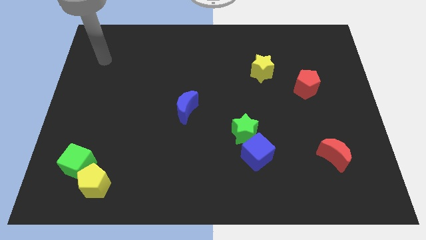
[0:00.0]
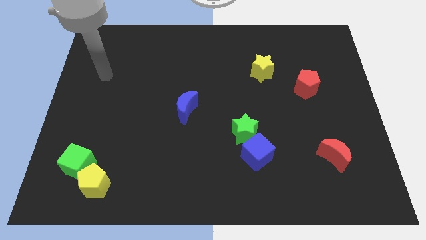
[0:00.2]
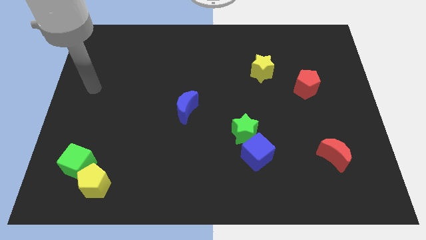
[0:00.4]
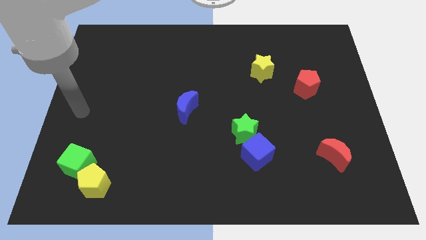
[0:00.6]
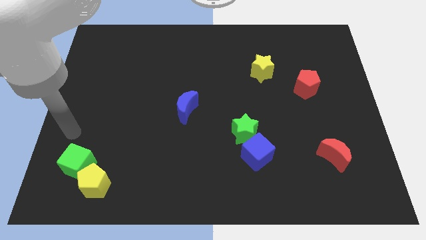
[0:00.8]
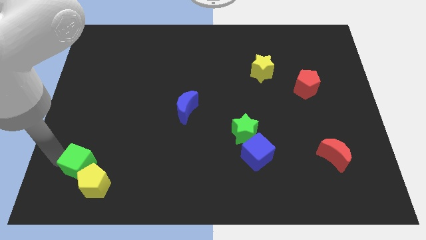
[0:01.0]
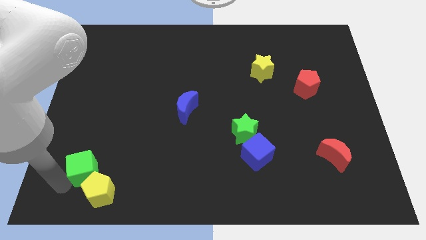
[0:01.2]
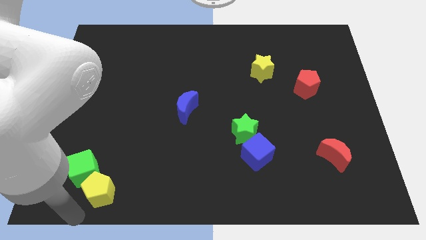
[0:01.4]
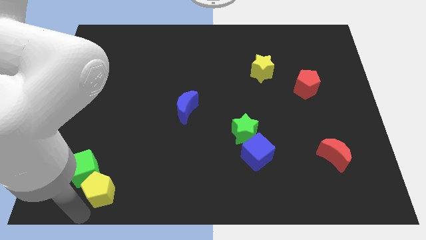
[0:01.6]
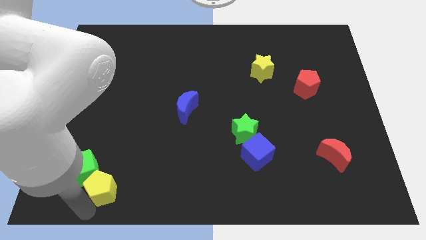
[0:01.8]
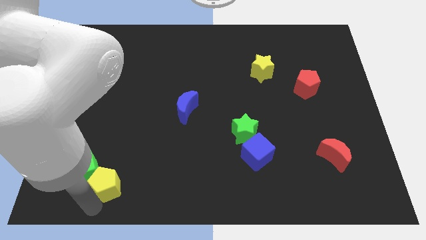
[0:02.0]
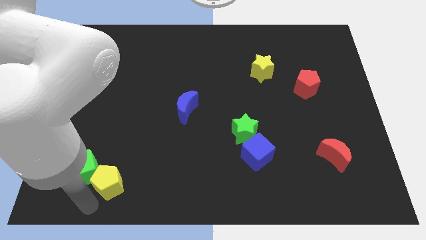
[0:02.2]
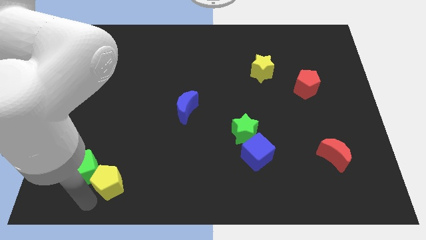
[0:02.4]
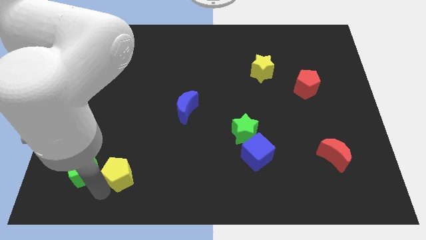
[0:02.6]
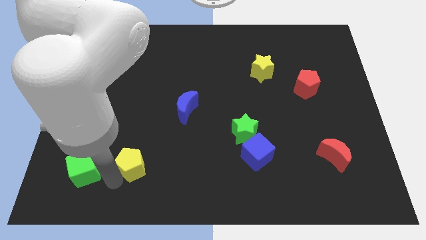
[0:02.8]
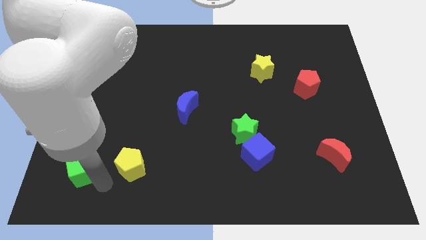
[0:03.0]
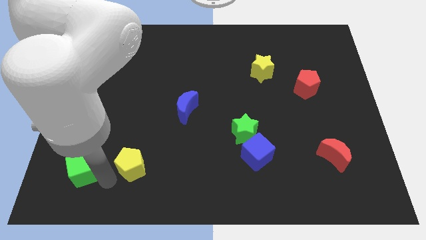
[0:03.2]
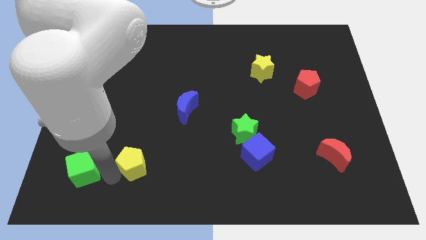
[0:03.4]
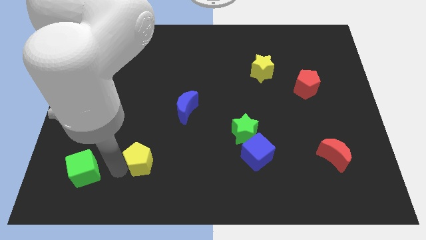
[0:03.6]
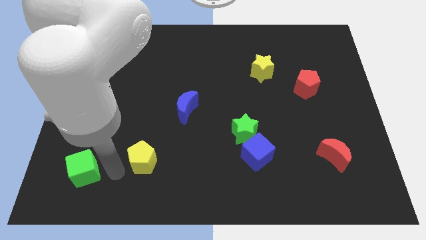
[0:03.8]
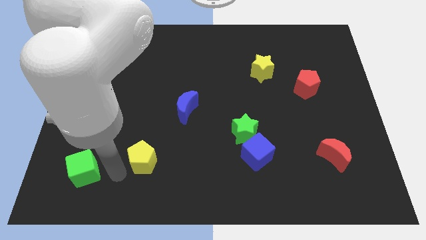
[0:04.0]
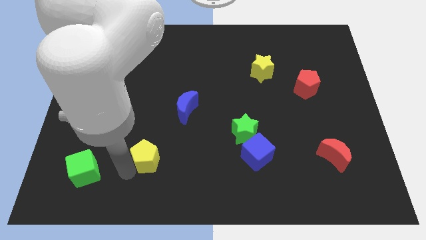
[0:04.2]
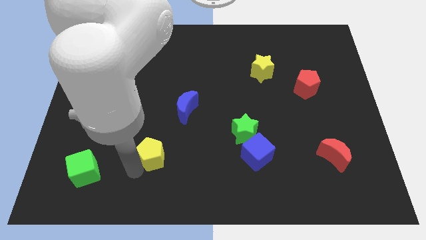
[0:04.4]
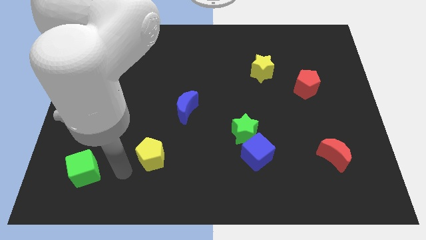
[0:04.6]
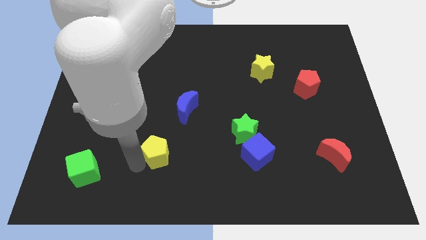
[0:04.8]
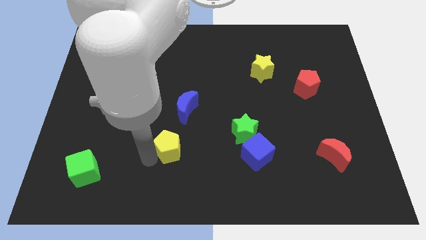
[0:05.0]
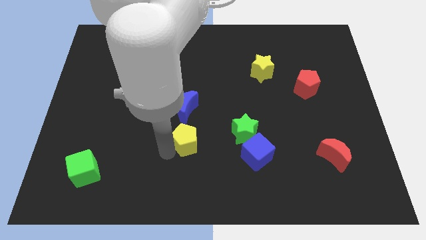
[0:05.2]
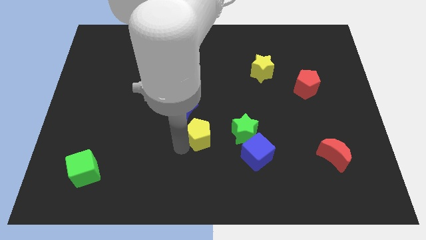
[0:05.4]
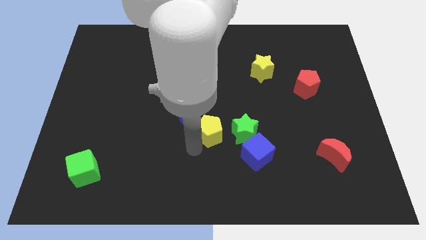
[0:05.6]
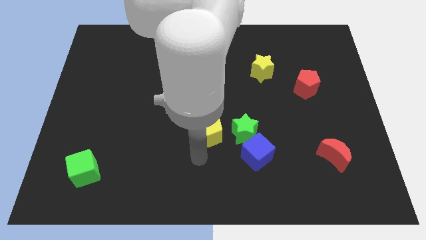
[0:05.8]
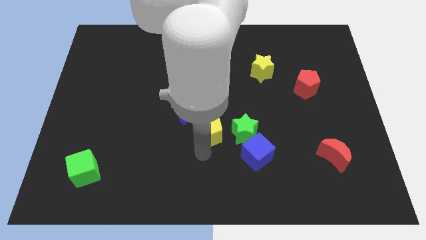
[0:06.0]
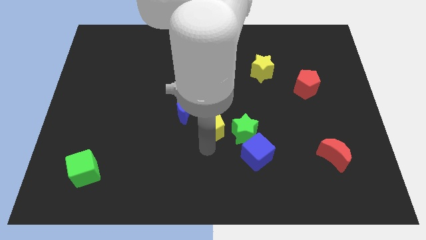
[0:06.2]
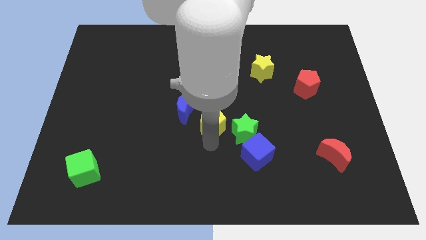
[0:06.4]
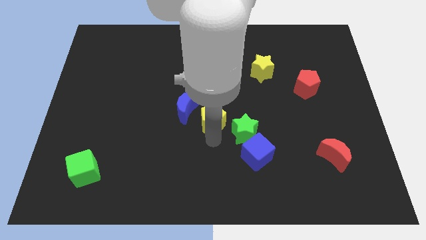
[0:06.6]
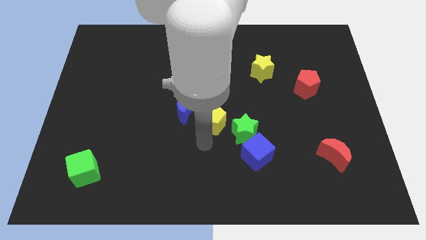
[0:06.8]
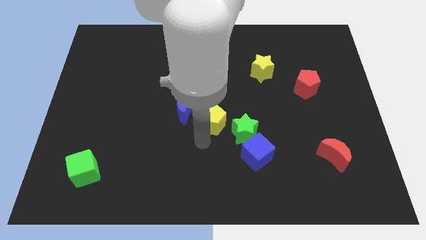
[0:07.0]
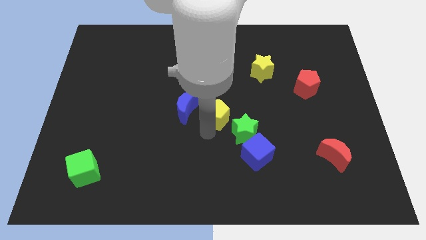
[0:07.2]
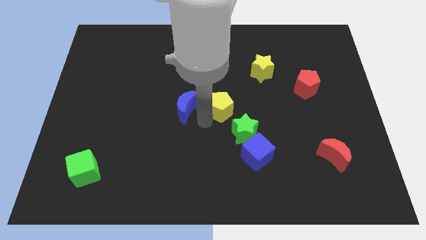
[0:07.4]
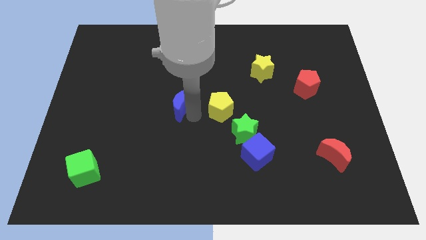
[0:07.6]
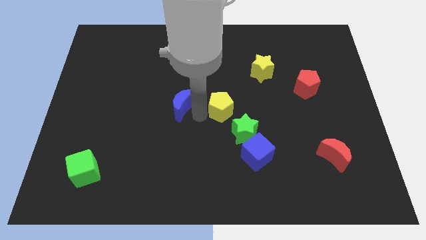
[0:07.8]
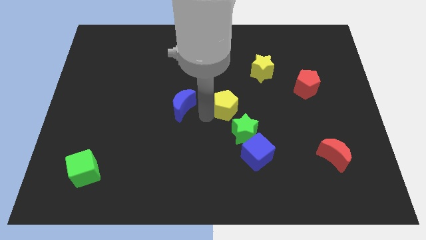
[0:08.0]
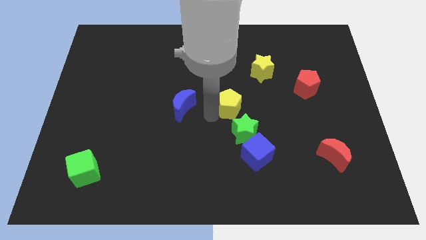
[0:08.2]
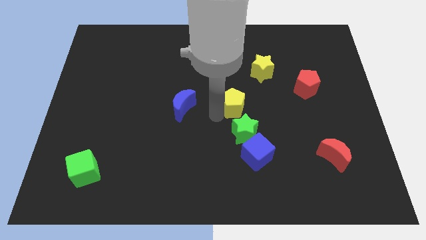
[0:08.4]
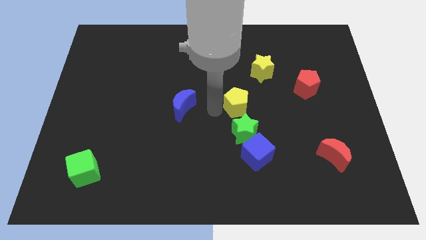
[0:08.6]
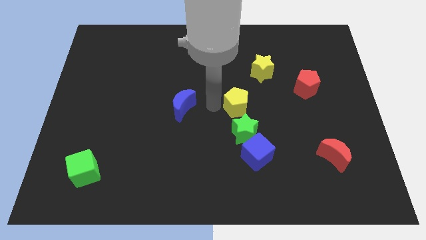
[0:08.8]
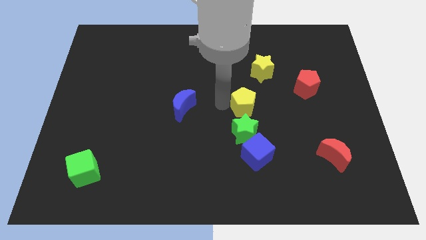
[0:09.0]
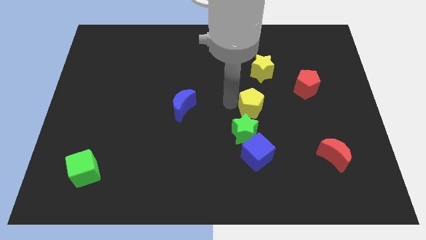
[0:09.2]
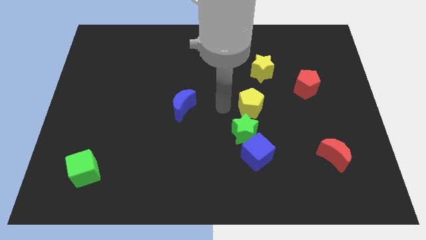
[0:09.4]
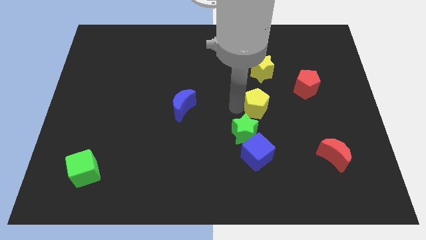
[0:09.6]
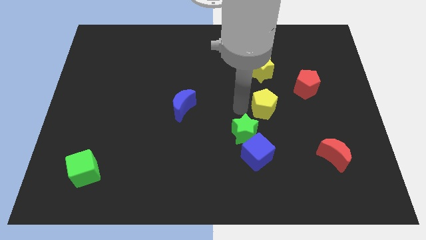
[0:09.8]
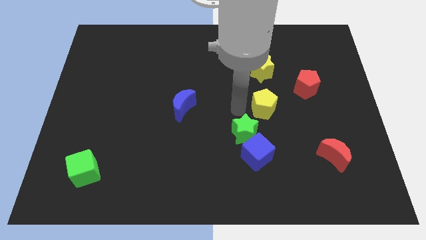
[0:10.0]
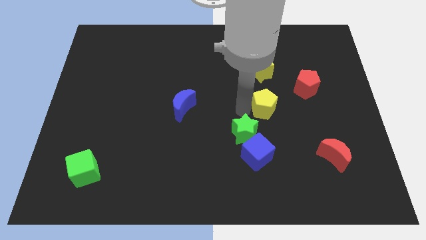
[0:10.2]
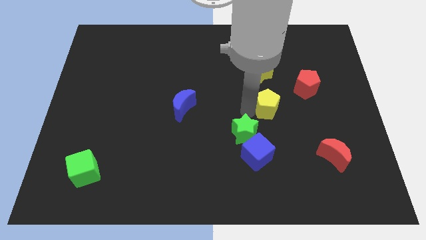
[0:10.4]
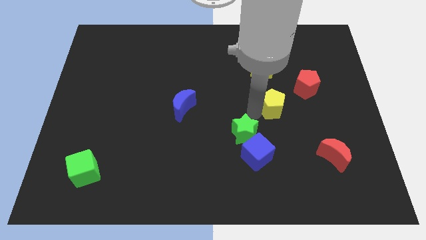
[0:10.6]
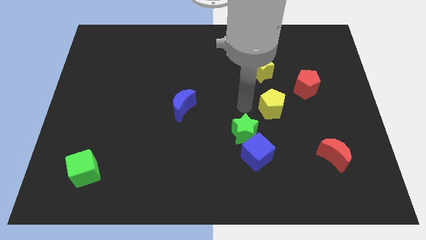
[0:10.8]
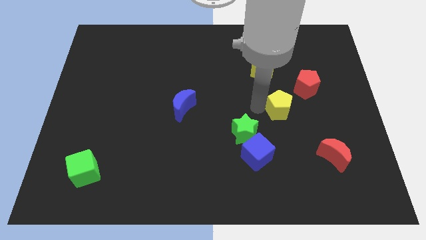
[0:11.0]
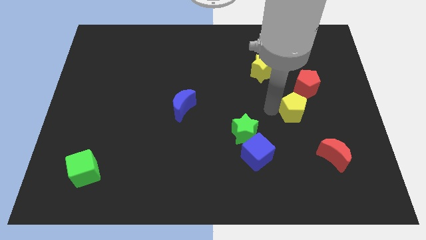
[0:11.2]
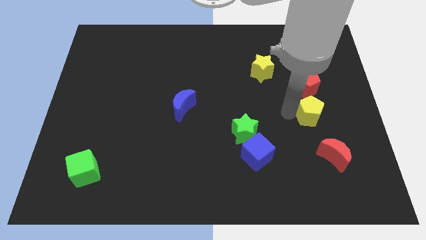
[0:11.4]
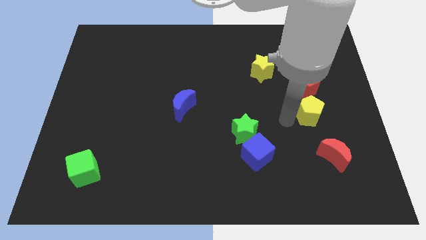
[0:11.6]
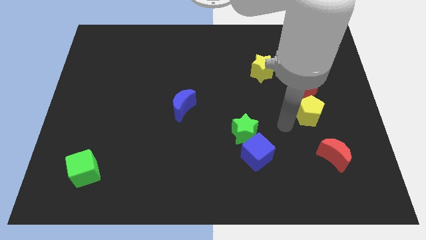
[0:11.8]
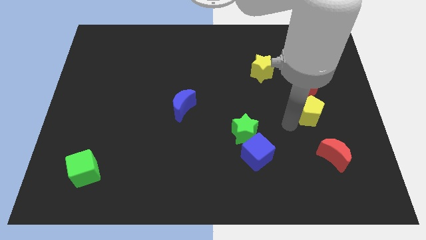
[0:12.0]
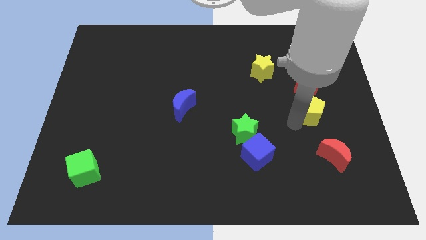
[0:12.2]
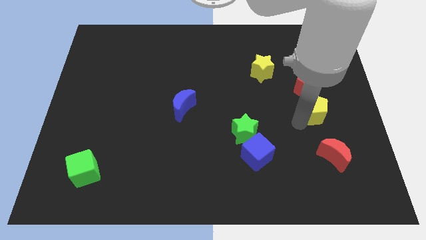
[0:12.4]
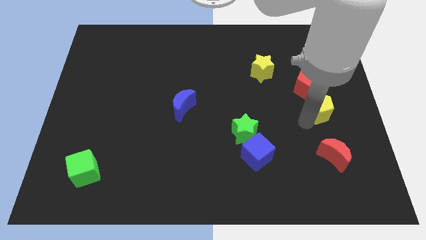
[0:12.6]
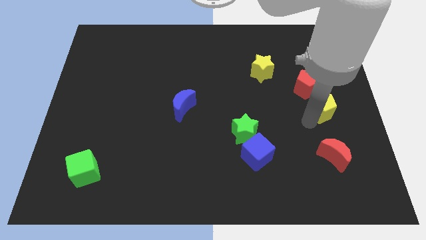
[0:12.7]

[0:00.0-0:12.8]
slide the yellow pentagon to the right side of the board
